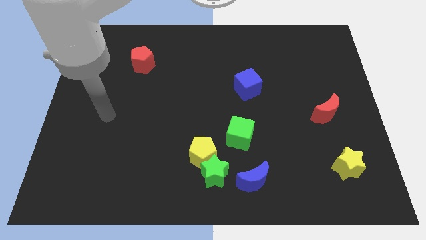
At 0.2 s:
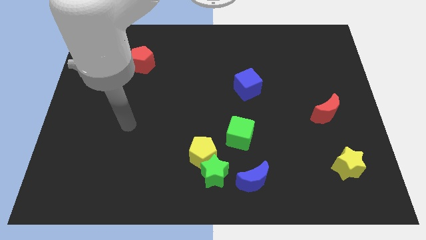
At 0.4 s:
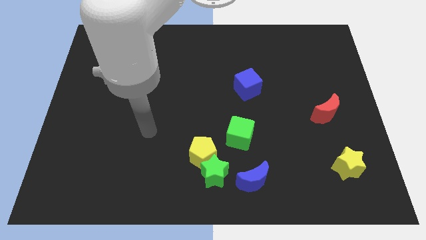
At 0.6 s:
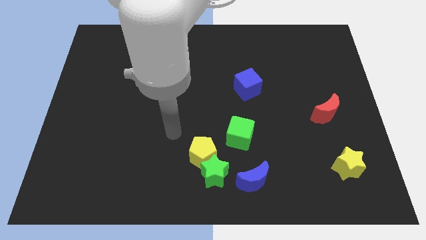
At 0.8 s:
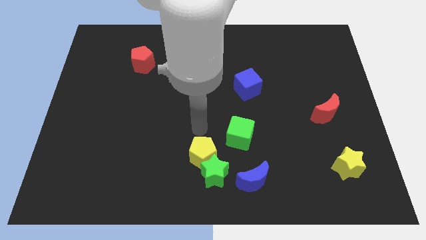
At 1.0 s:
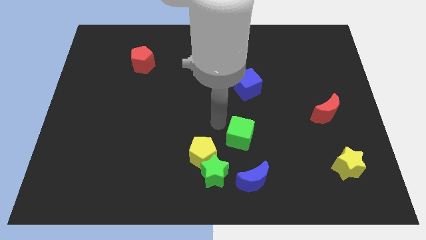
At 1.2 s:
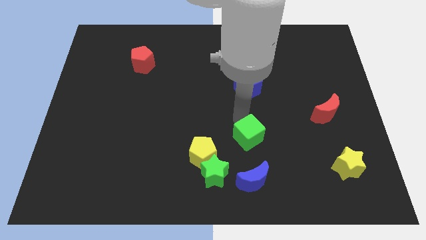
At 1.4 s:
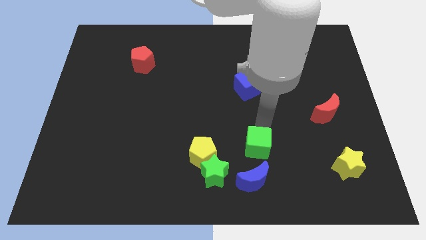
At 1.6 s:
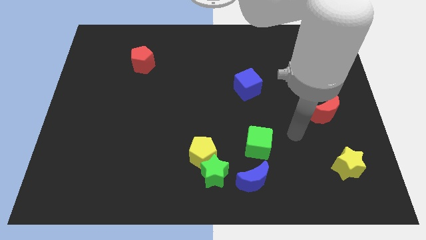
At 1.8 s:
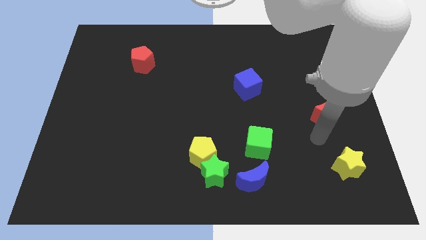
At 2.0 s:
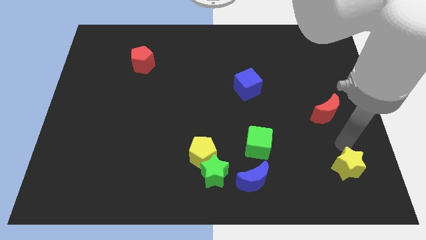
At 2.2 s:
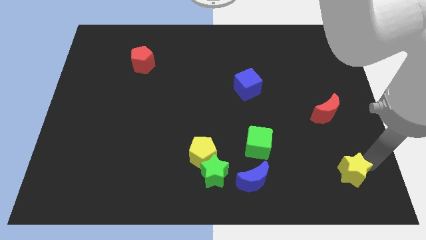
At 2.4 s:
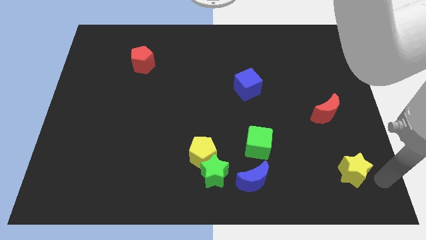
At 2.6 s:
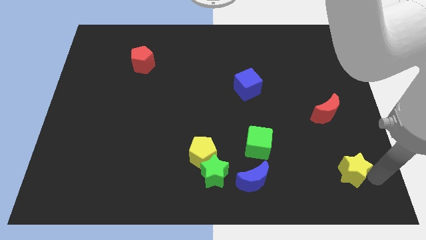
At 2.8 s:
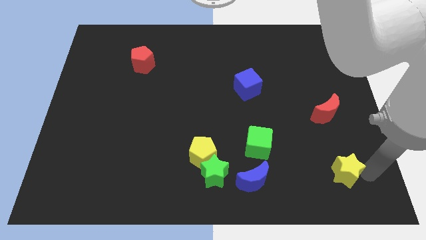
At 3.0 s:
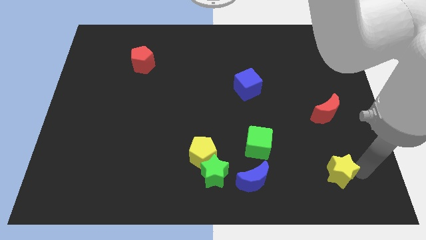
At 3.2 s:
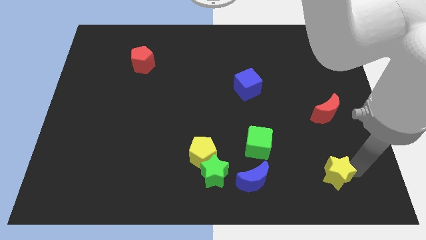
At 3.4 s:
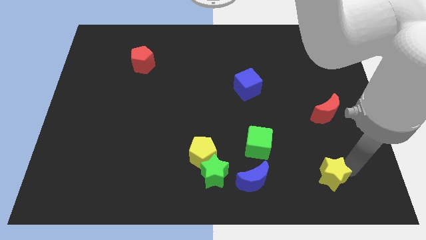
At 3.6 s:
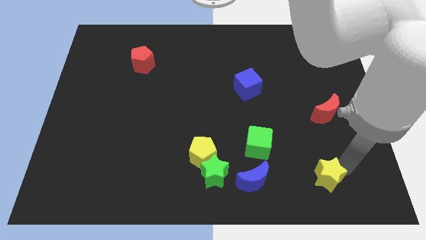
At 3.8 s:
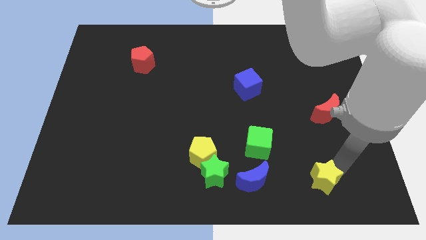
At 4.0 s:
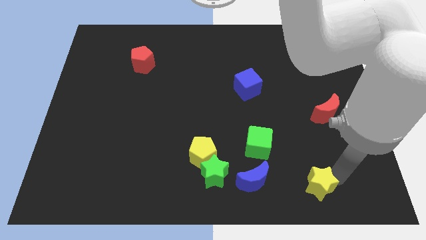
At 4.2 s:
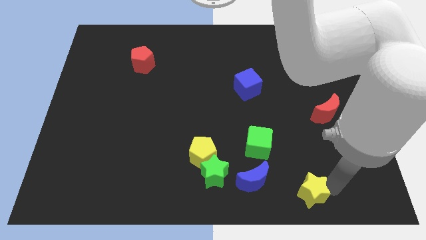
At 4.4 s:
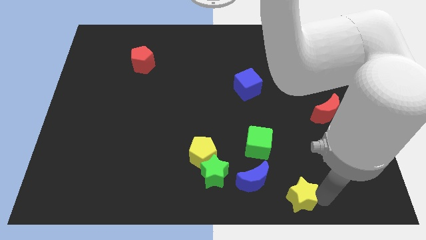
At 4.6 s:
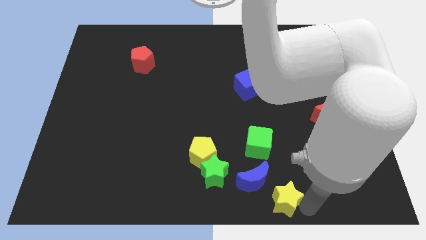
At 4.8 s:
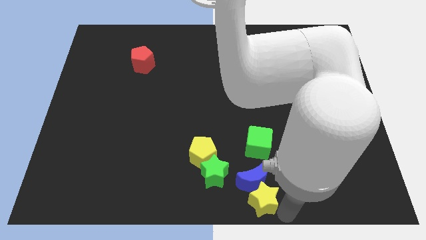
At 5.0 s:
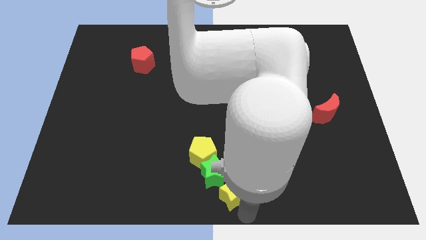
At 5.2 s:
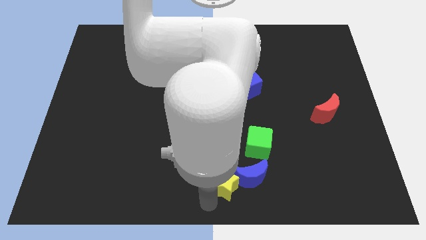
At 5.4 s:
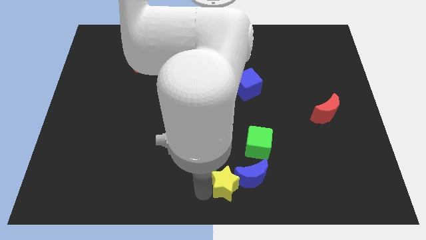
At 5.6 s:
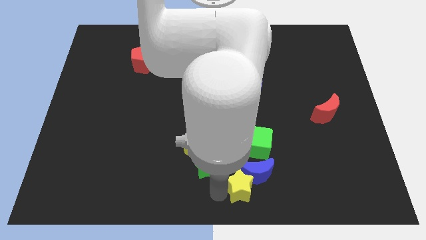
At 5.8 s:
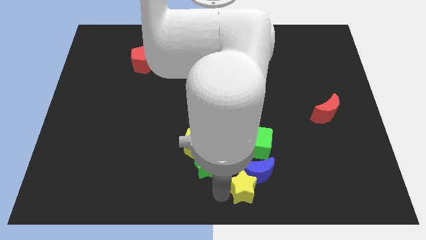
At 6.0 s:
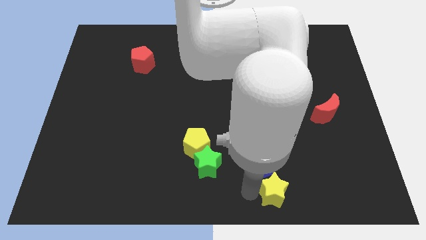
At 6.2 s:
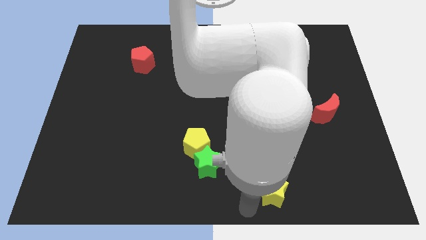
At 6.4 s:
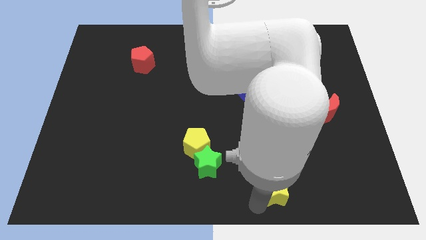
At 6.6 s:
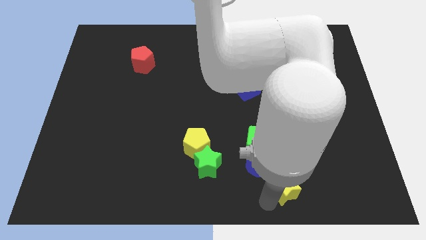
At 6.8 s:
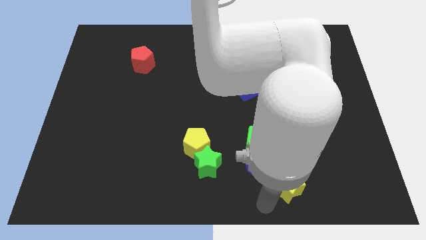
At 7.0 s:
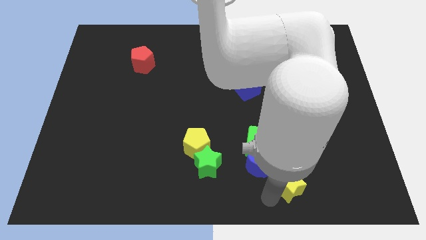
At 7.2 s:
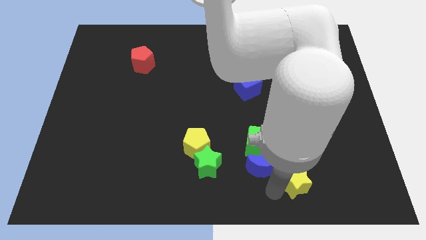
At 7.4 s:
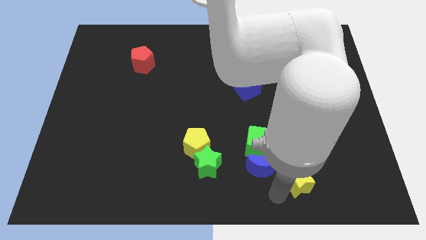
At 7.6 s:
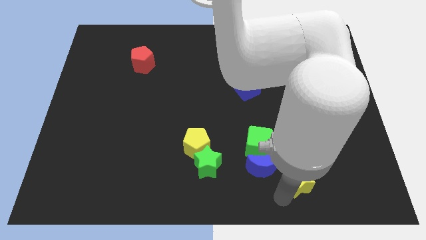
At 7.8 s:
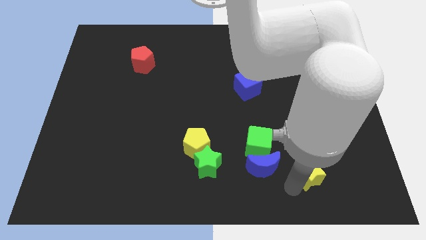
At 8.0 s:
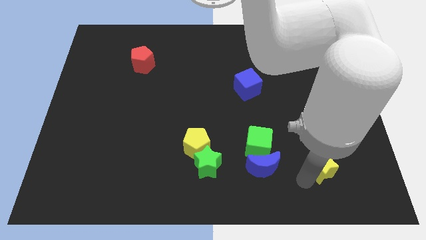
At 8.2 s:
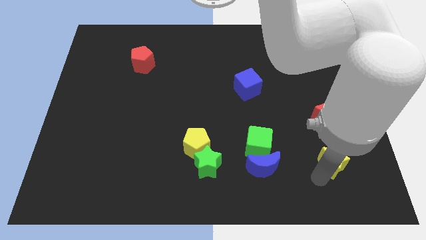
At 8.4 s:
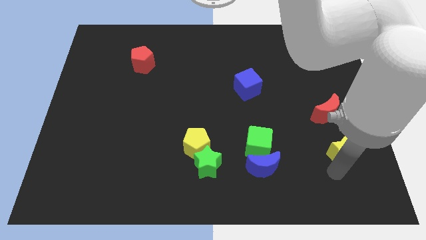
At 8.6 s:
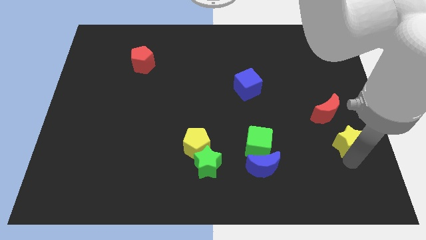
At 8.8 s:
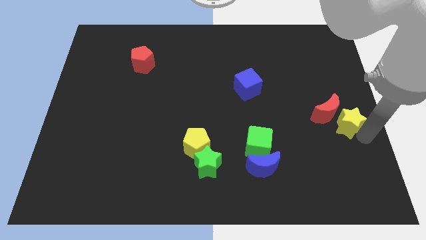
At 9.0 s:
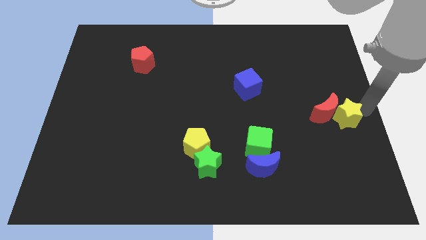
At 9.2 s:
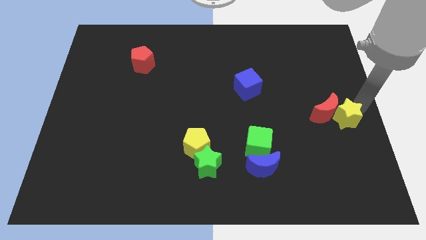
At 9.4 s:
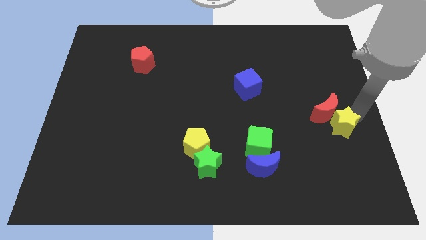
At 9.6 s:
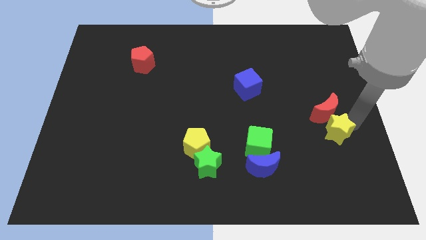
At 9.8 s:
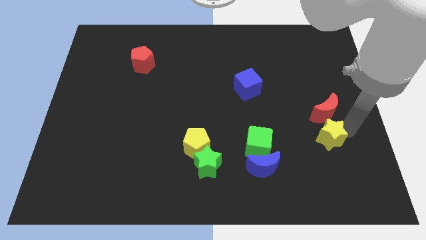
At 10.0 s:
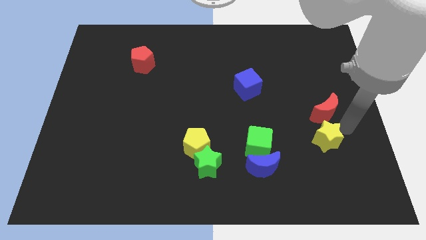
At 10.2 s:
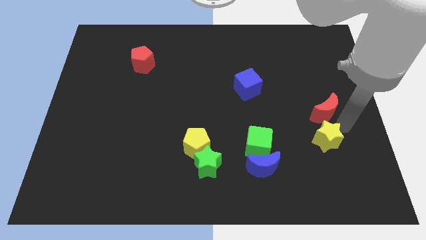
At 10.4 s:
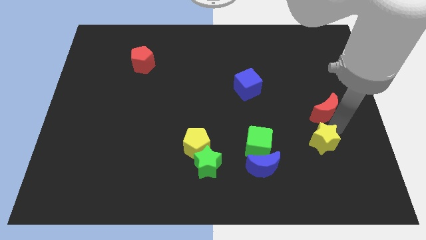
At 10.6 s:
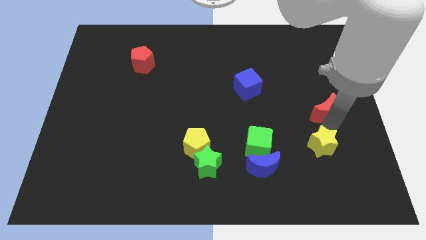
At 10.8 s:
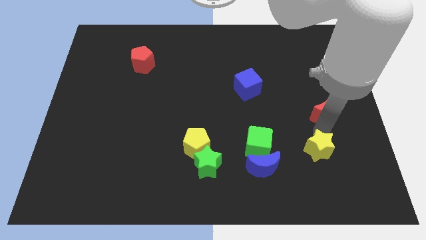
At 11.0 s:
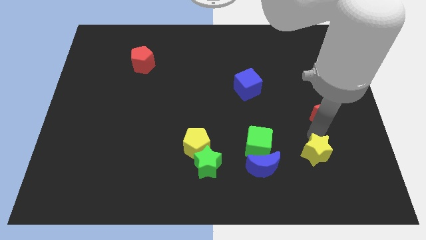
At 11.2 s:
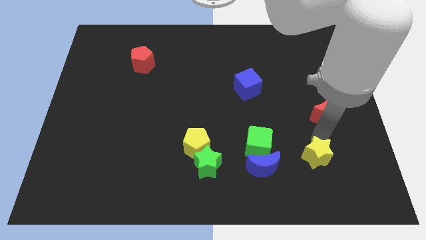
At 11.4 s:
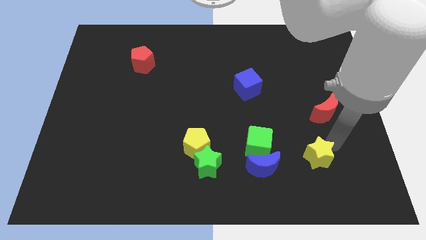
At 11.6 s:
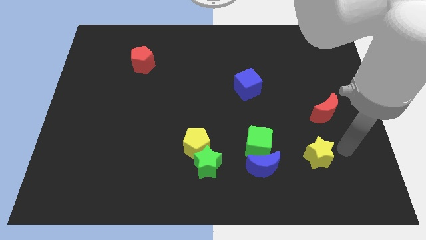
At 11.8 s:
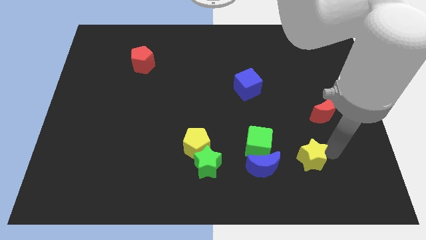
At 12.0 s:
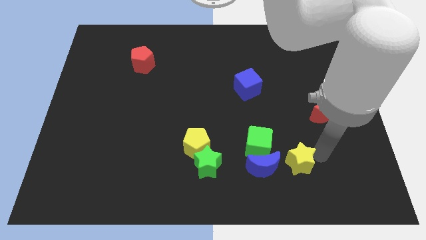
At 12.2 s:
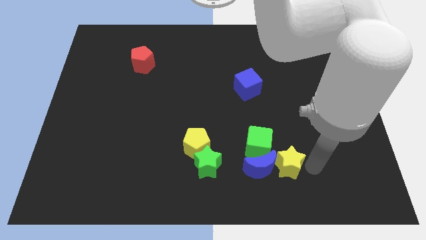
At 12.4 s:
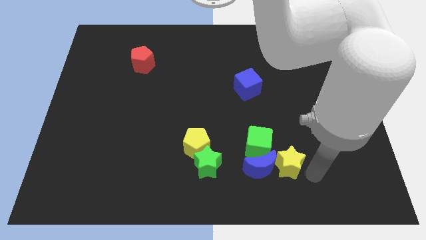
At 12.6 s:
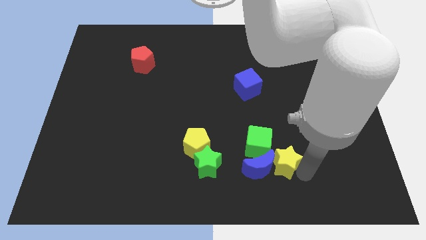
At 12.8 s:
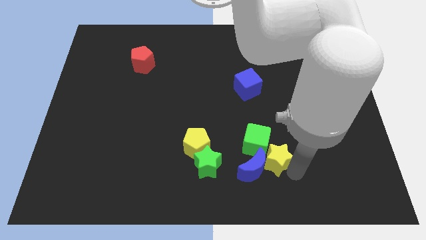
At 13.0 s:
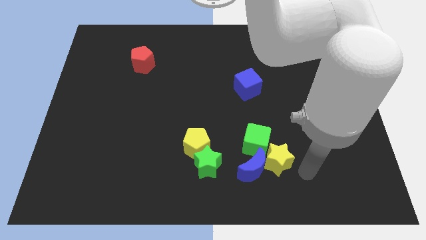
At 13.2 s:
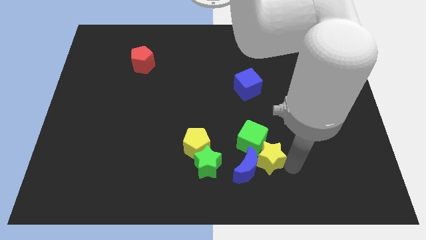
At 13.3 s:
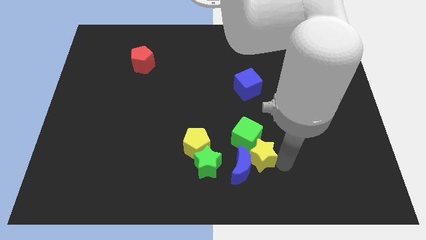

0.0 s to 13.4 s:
put the yellow star just right of the yellow pentagon
